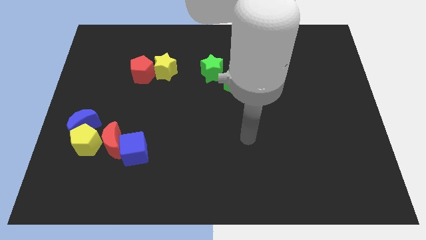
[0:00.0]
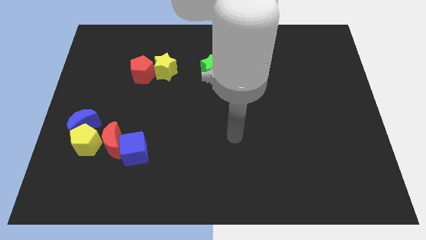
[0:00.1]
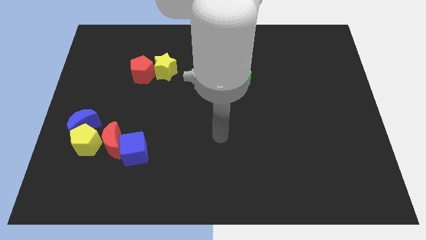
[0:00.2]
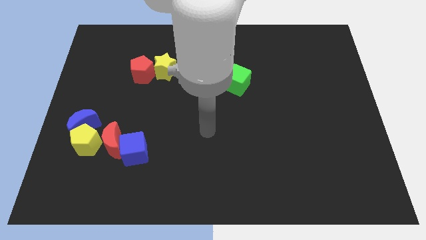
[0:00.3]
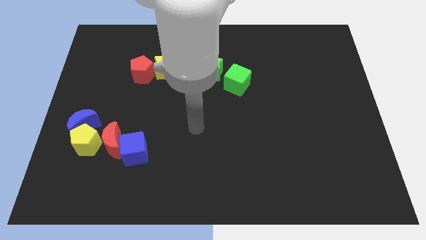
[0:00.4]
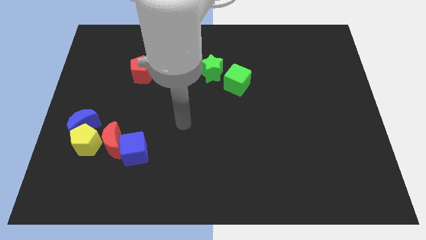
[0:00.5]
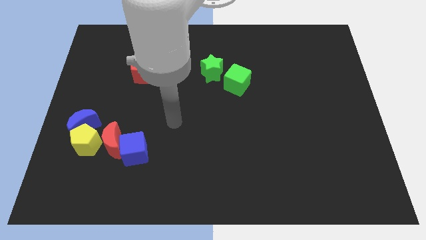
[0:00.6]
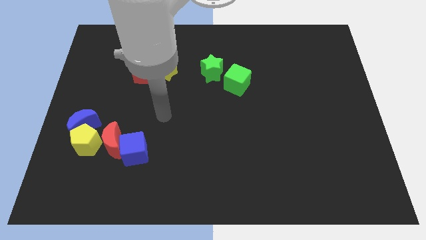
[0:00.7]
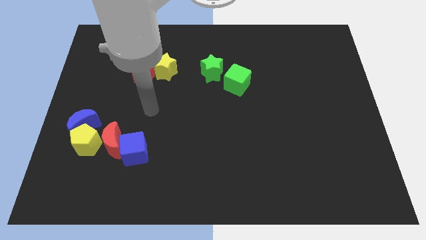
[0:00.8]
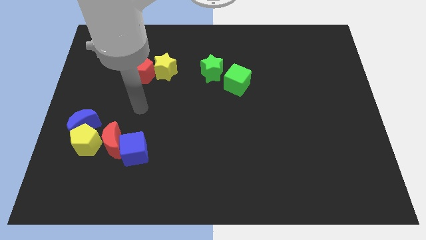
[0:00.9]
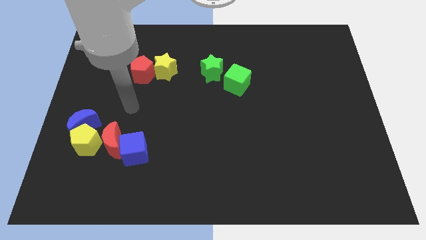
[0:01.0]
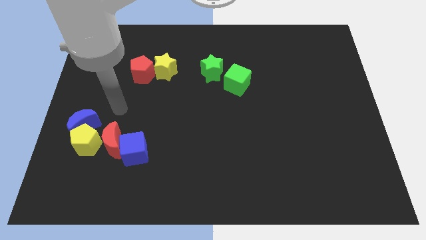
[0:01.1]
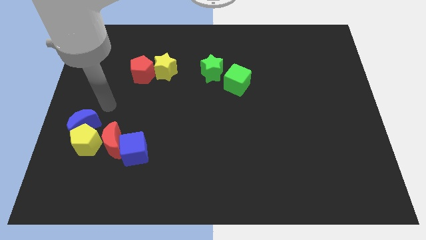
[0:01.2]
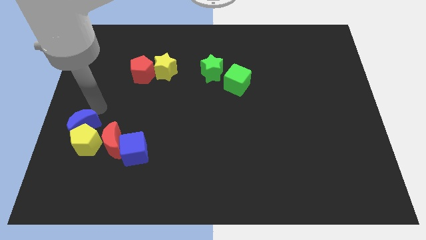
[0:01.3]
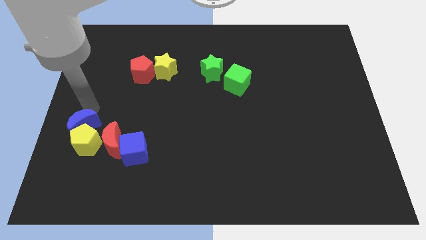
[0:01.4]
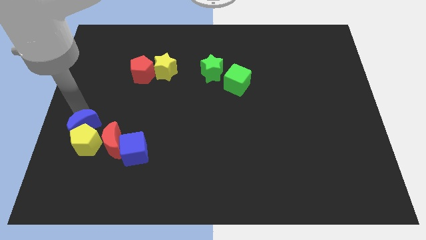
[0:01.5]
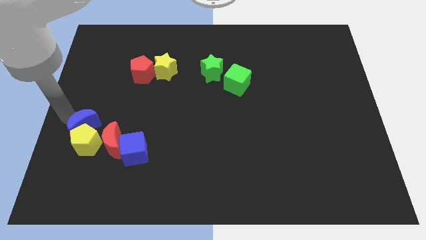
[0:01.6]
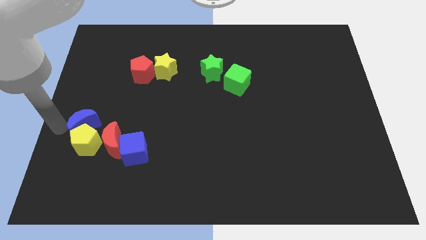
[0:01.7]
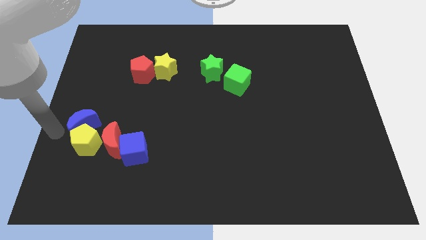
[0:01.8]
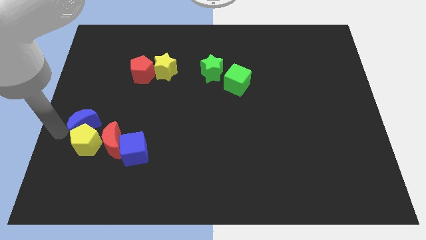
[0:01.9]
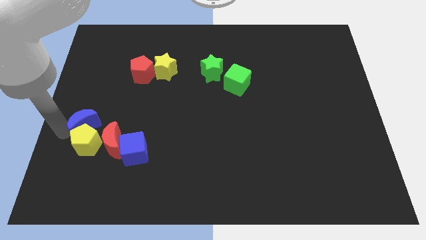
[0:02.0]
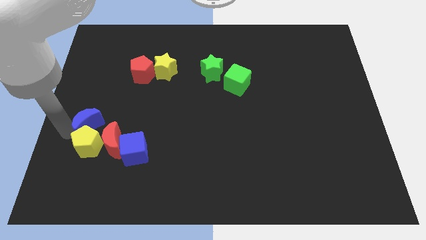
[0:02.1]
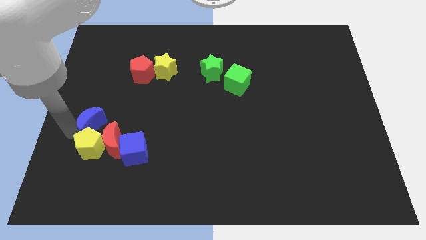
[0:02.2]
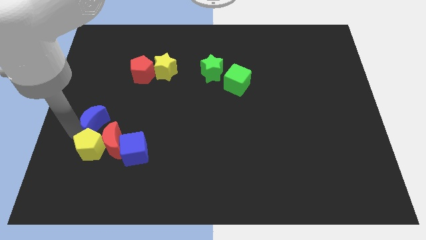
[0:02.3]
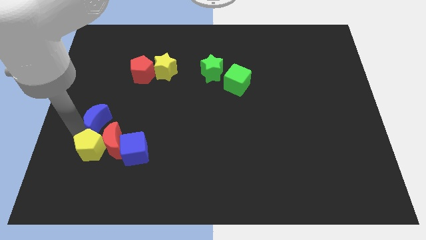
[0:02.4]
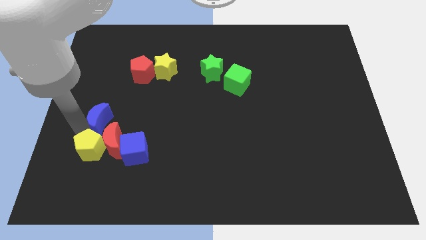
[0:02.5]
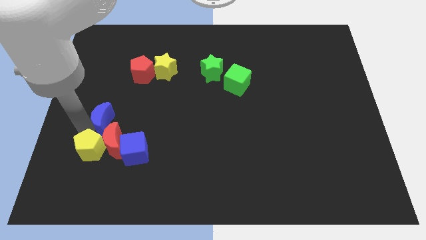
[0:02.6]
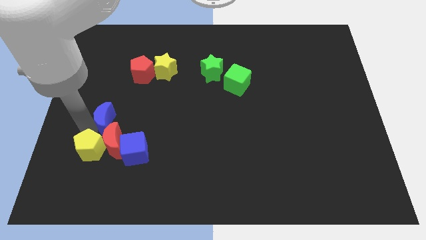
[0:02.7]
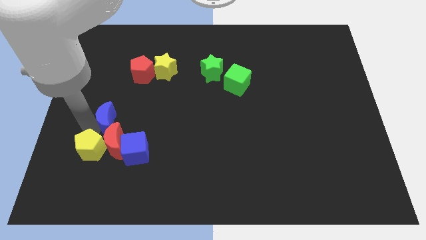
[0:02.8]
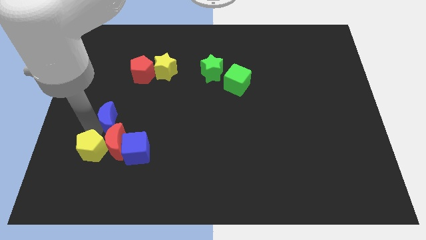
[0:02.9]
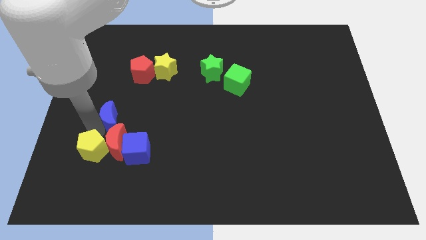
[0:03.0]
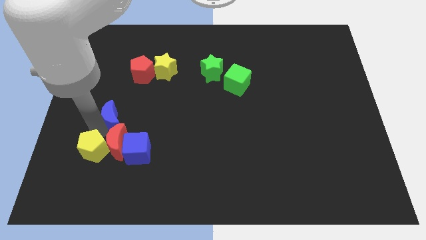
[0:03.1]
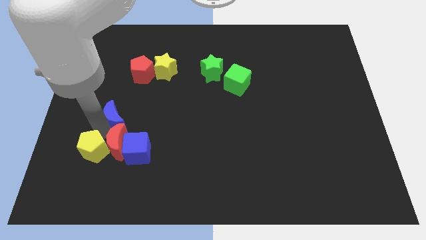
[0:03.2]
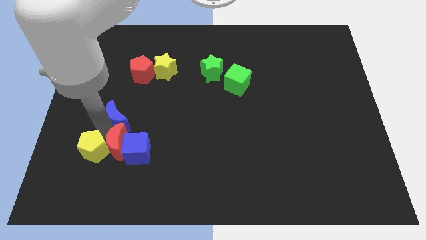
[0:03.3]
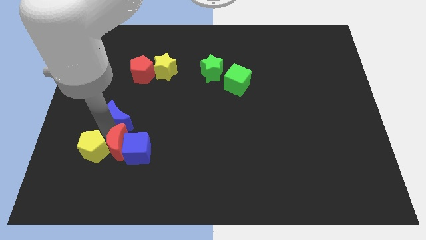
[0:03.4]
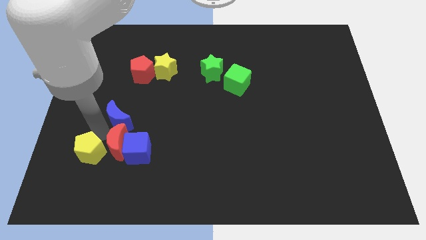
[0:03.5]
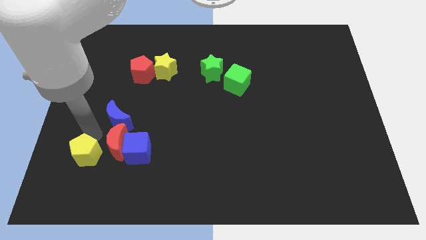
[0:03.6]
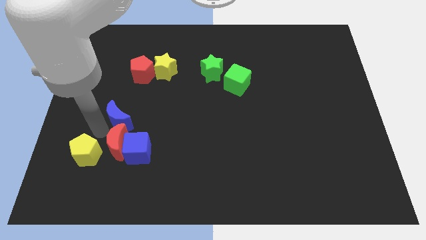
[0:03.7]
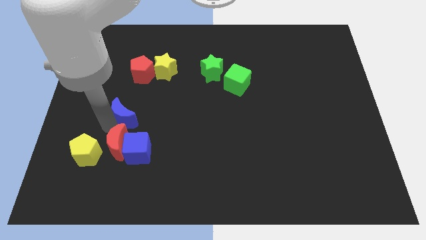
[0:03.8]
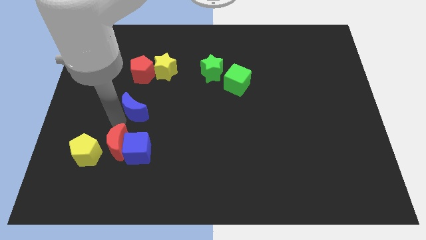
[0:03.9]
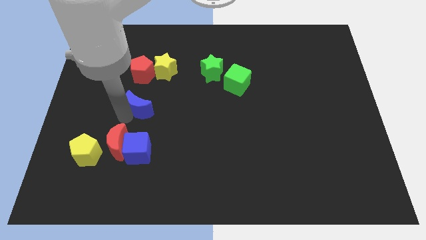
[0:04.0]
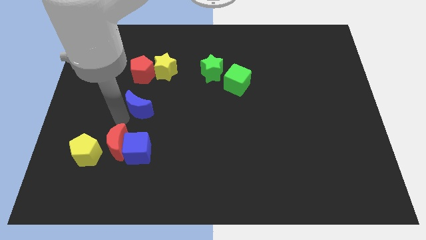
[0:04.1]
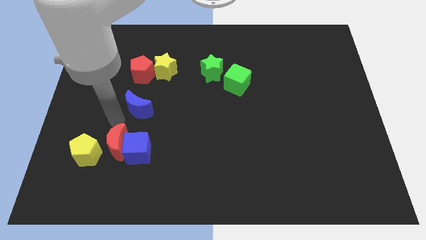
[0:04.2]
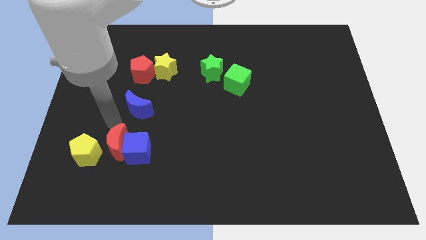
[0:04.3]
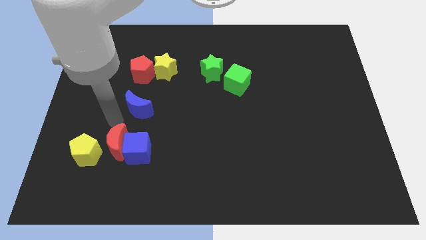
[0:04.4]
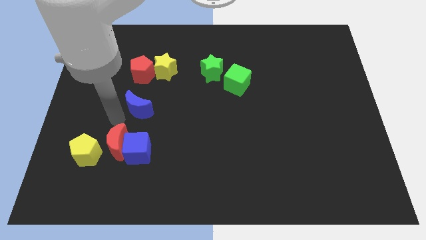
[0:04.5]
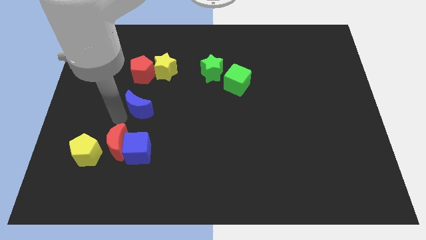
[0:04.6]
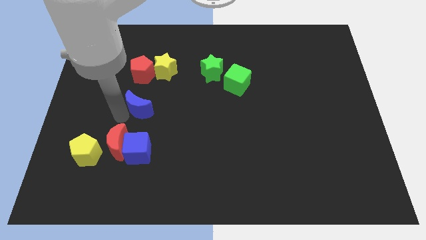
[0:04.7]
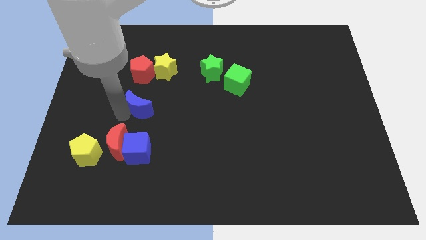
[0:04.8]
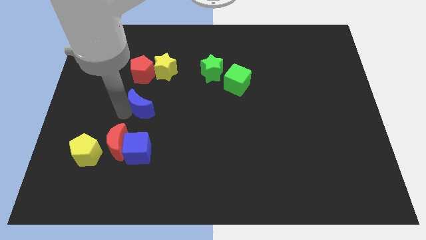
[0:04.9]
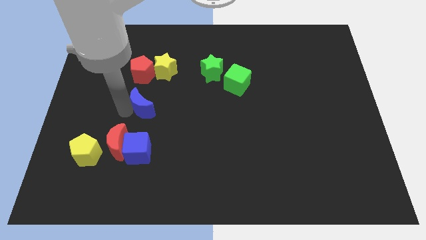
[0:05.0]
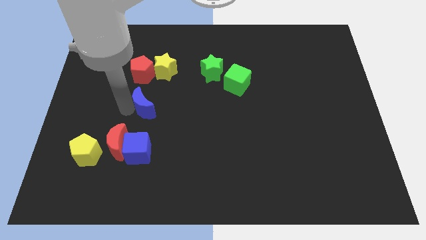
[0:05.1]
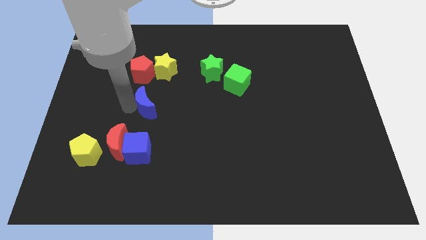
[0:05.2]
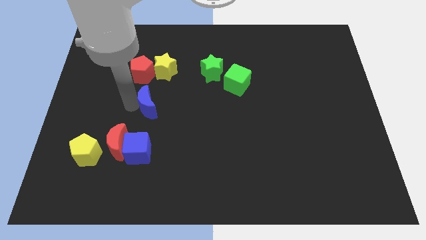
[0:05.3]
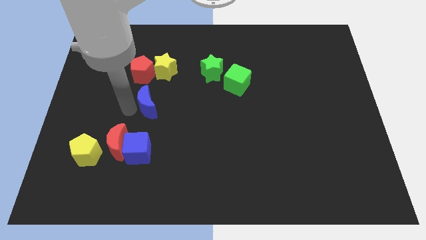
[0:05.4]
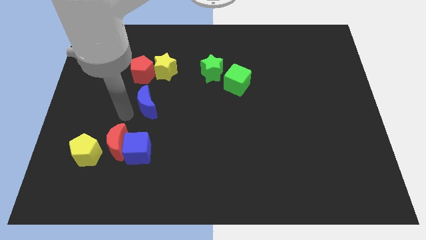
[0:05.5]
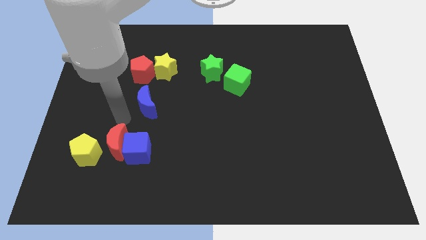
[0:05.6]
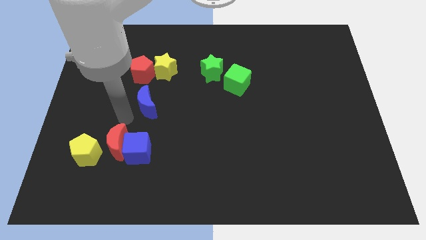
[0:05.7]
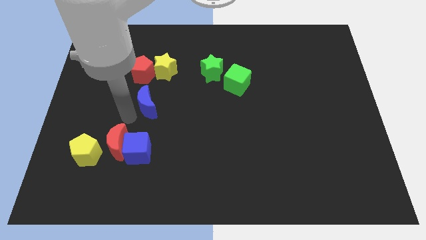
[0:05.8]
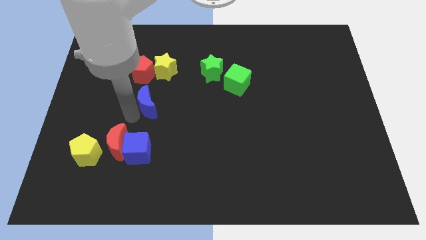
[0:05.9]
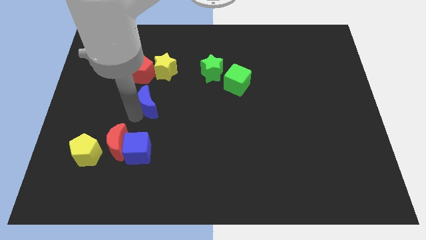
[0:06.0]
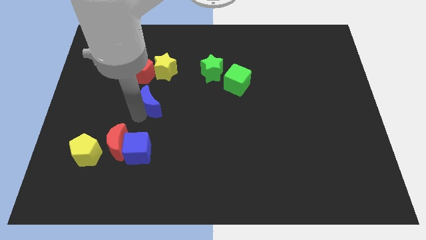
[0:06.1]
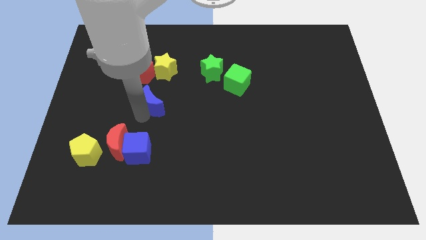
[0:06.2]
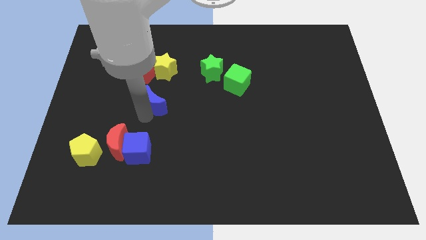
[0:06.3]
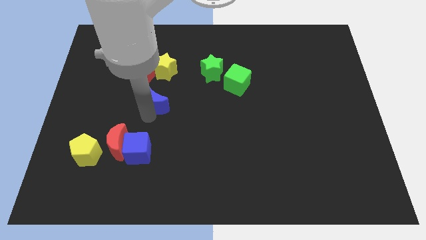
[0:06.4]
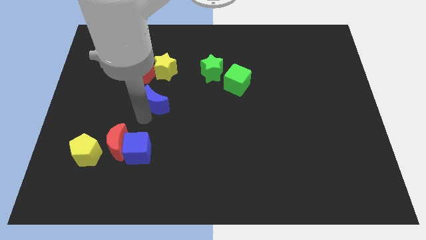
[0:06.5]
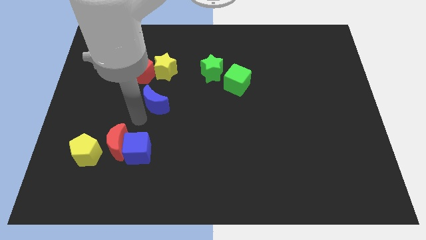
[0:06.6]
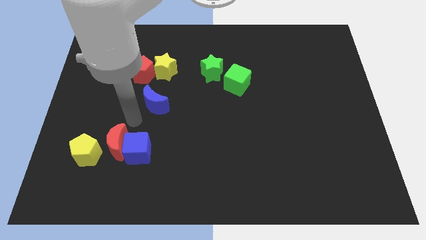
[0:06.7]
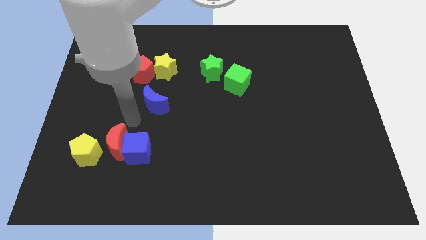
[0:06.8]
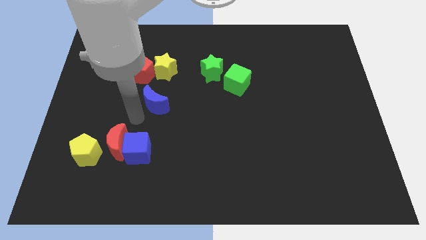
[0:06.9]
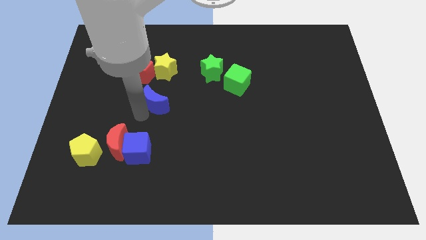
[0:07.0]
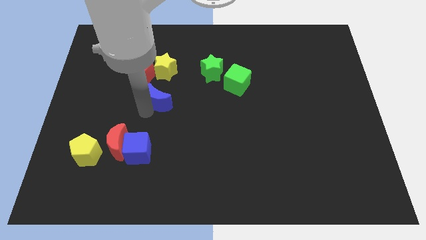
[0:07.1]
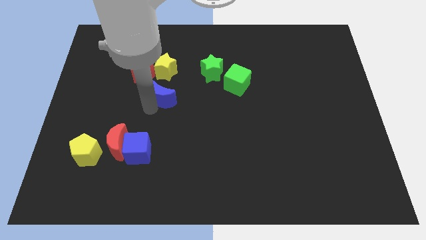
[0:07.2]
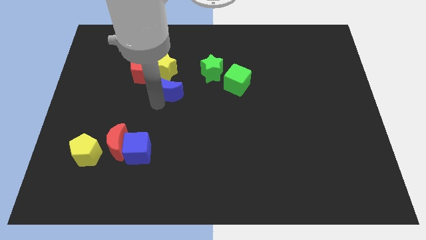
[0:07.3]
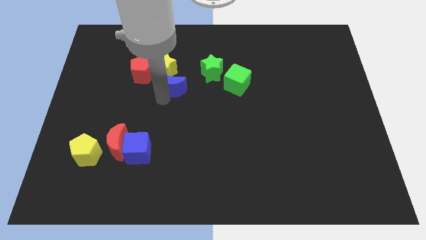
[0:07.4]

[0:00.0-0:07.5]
move the blue moon upwards and to the right diagonally

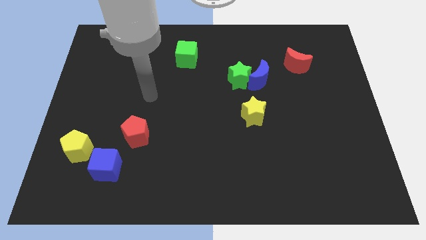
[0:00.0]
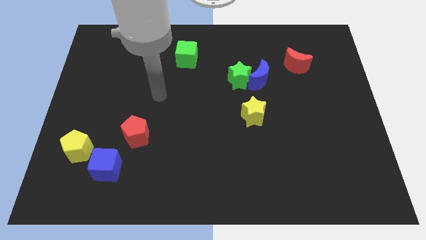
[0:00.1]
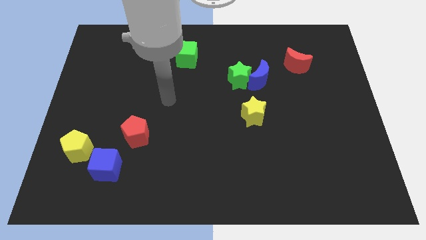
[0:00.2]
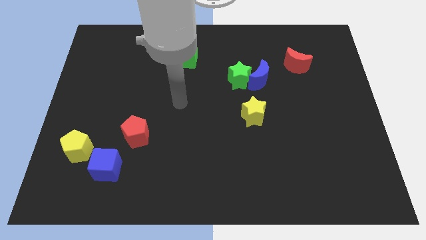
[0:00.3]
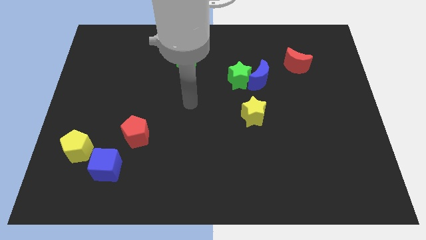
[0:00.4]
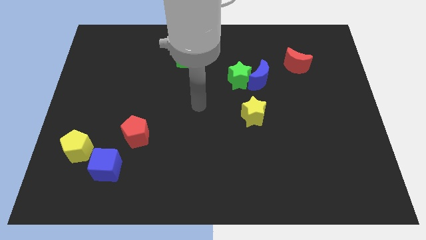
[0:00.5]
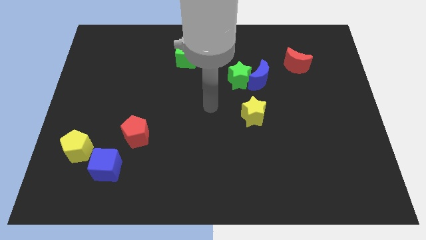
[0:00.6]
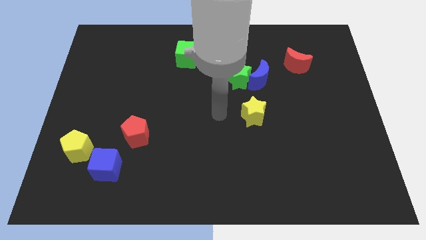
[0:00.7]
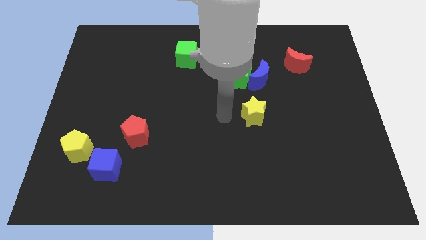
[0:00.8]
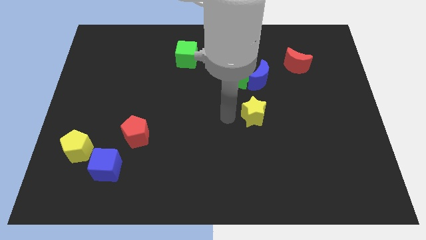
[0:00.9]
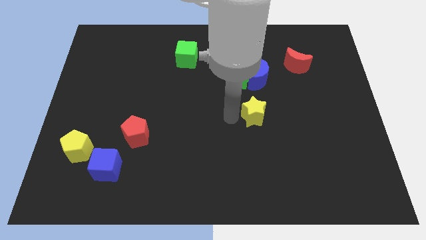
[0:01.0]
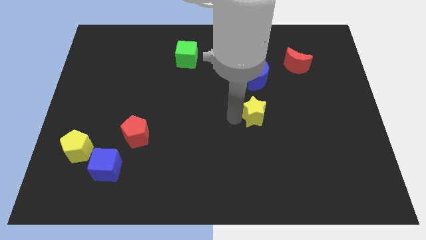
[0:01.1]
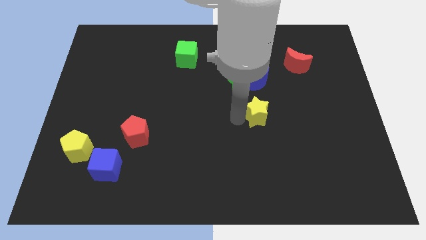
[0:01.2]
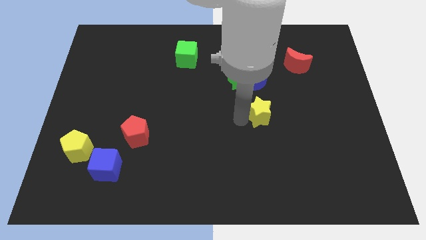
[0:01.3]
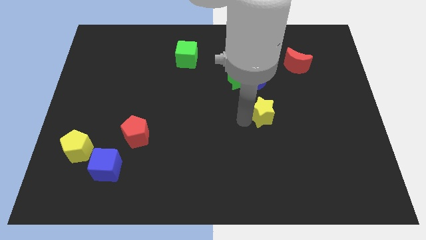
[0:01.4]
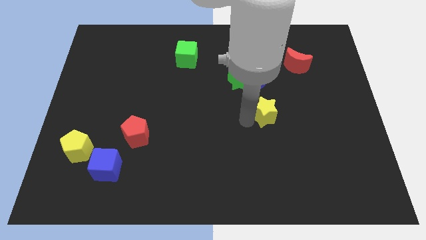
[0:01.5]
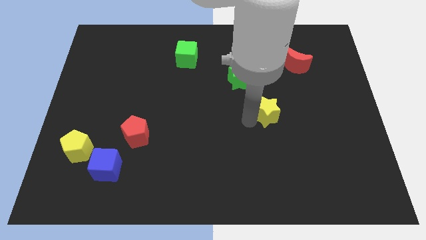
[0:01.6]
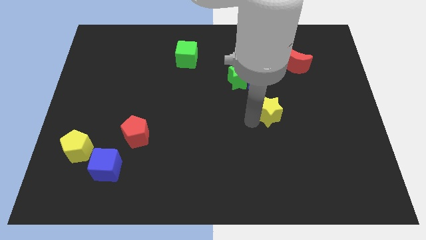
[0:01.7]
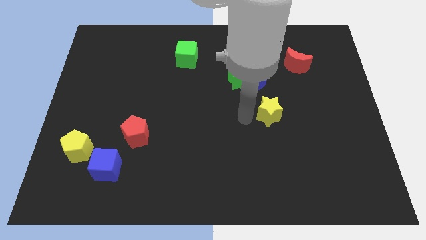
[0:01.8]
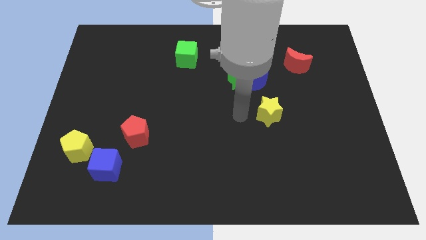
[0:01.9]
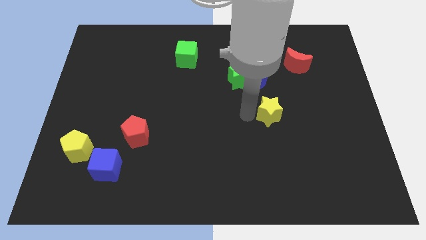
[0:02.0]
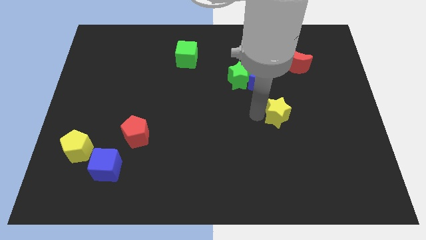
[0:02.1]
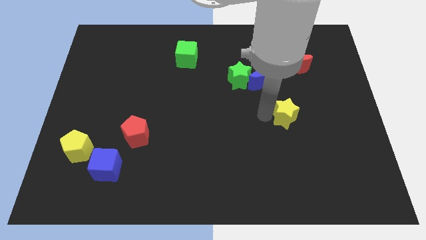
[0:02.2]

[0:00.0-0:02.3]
slide the yellow star somewhat right
